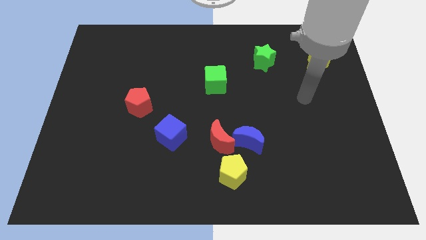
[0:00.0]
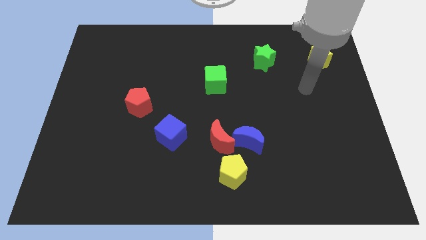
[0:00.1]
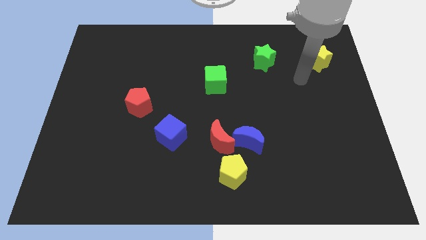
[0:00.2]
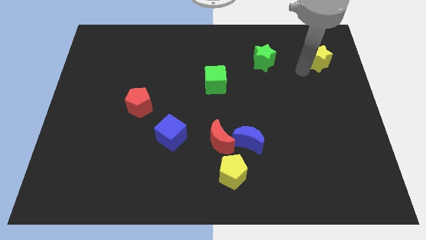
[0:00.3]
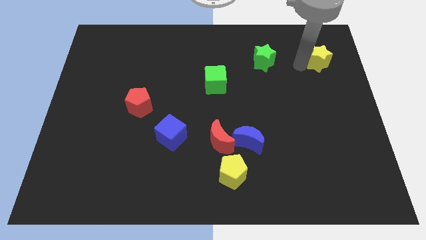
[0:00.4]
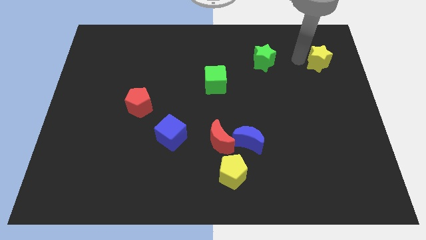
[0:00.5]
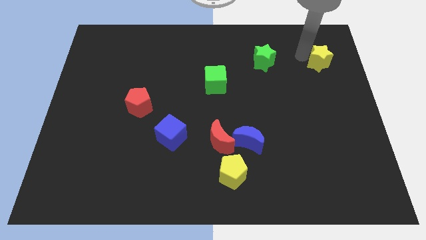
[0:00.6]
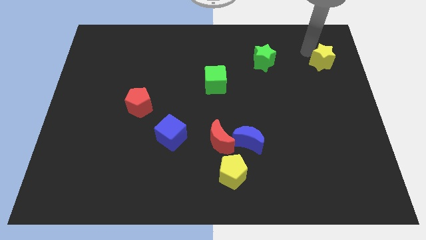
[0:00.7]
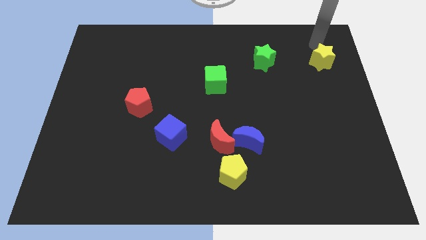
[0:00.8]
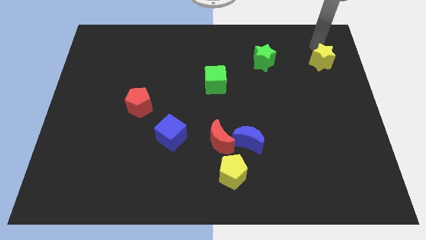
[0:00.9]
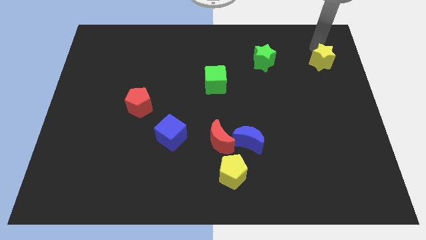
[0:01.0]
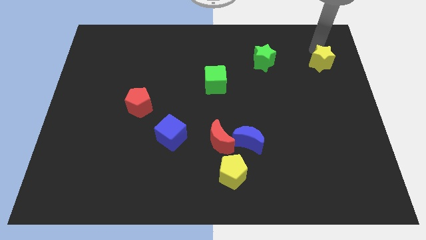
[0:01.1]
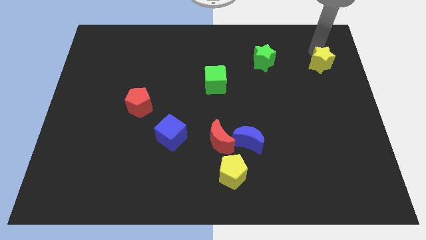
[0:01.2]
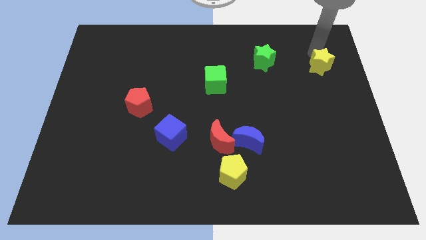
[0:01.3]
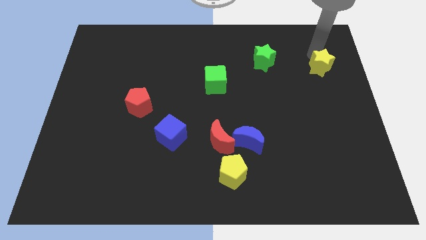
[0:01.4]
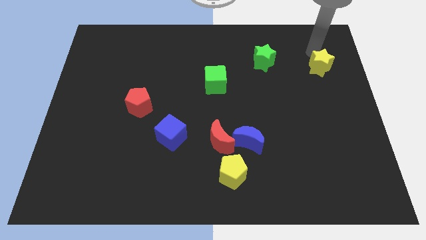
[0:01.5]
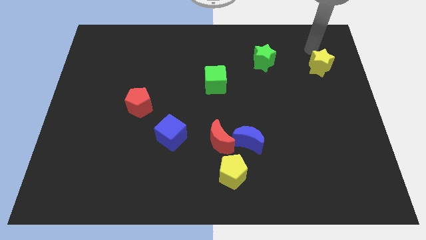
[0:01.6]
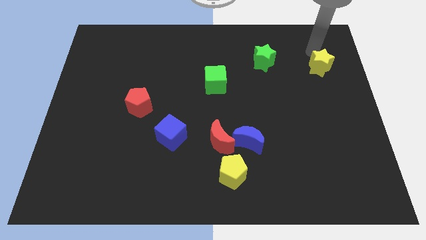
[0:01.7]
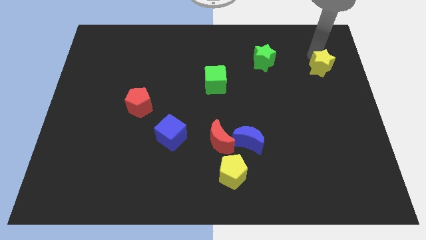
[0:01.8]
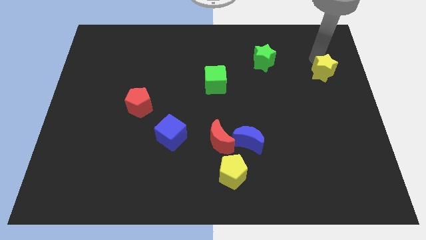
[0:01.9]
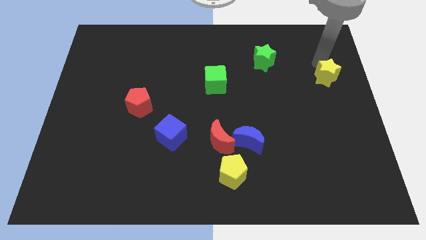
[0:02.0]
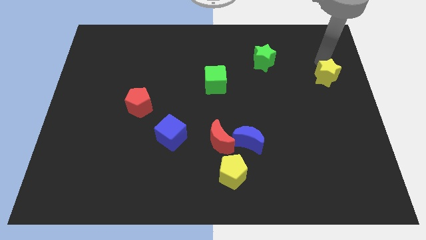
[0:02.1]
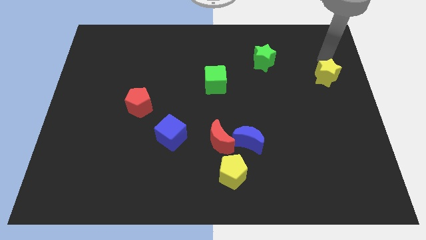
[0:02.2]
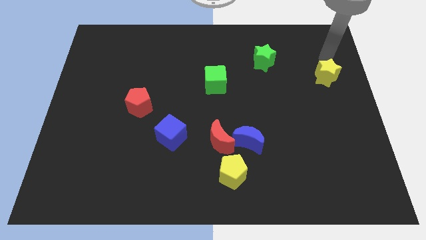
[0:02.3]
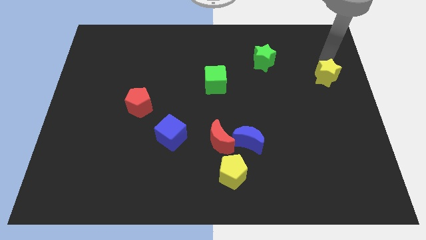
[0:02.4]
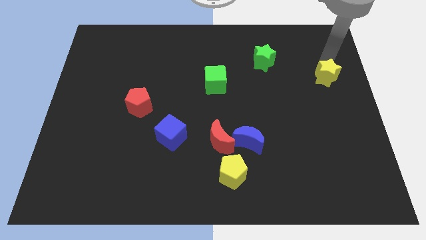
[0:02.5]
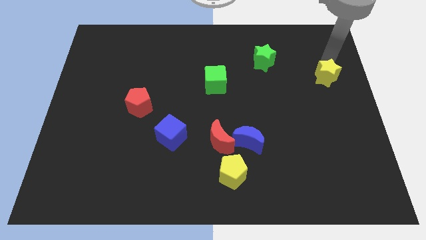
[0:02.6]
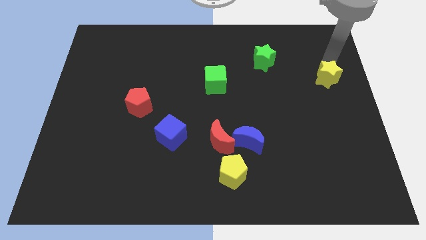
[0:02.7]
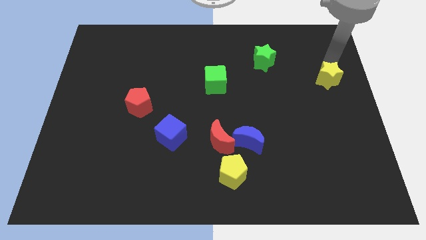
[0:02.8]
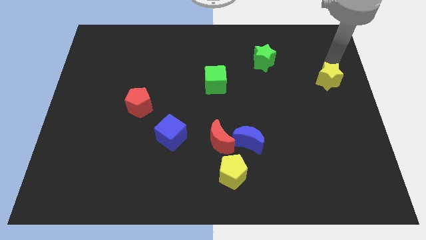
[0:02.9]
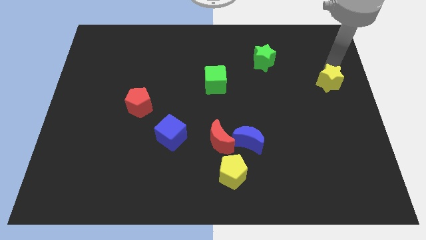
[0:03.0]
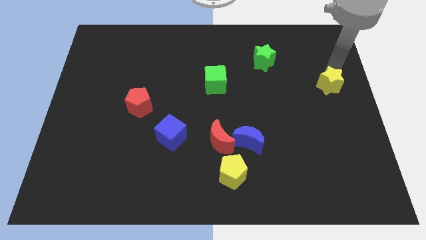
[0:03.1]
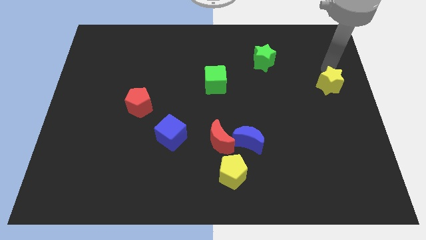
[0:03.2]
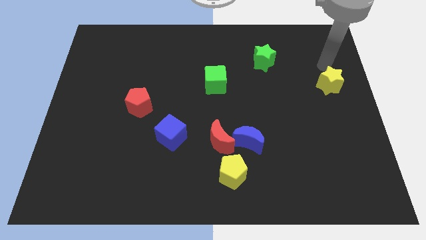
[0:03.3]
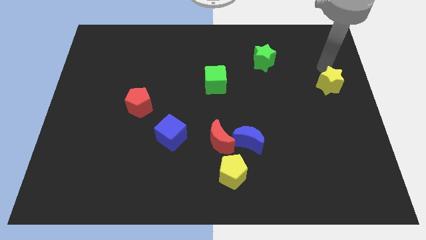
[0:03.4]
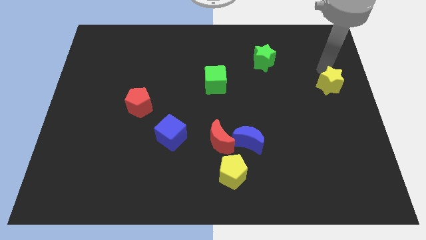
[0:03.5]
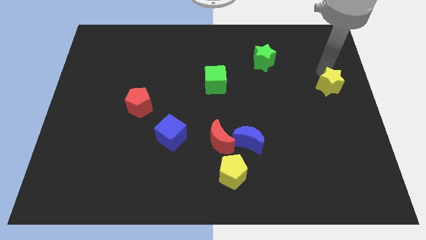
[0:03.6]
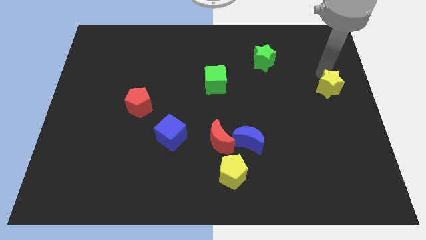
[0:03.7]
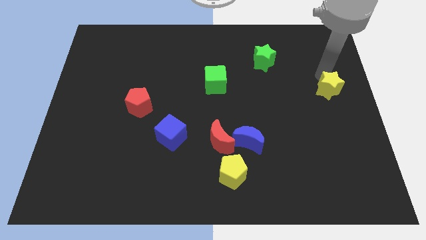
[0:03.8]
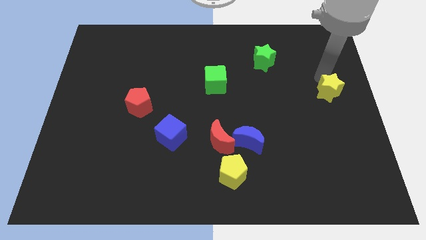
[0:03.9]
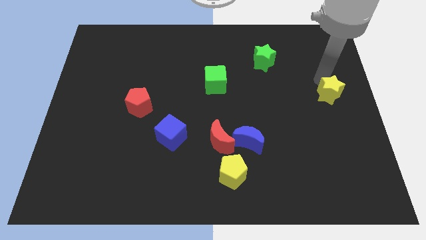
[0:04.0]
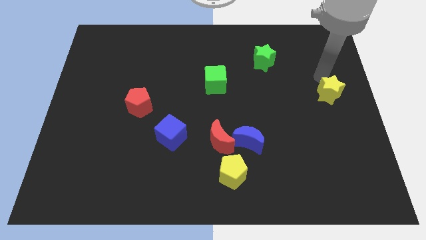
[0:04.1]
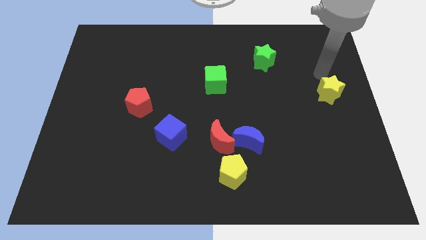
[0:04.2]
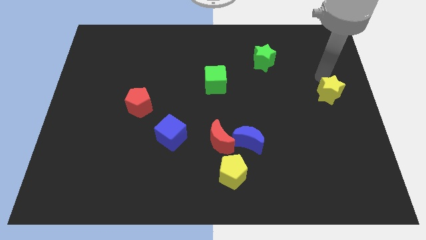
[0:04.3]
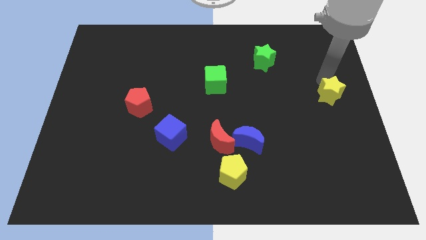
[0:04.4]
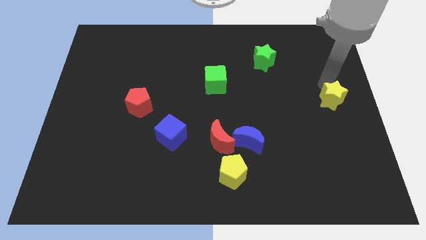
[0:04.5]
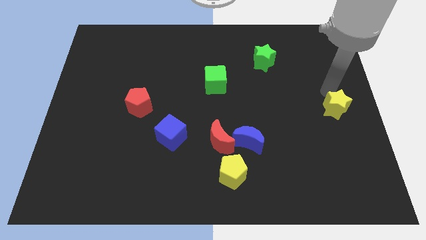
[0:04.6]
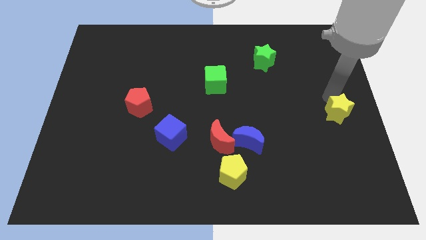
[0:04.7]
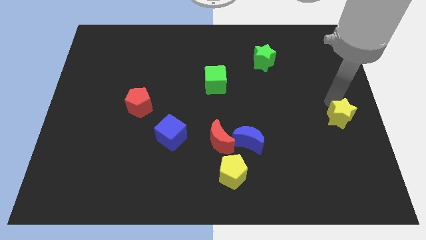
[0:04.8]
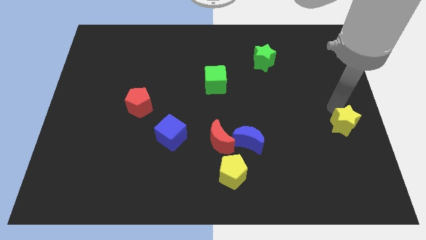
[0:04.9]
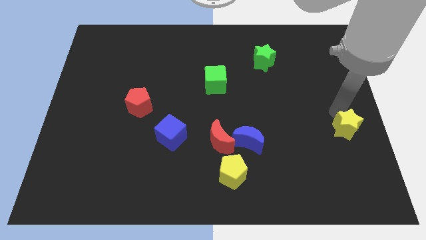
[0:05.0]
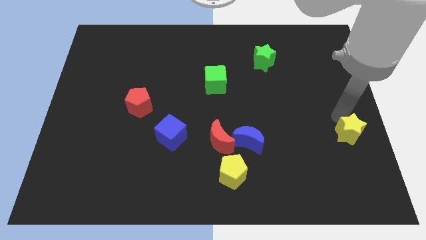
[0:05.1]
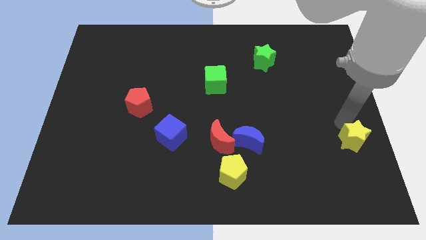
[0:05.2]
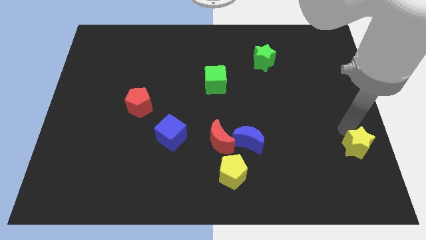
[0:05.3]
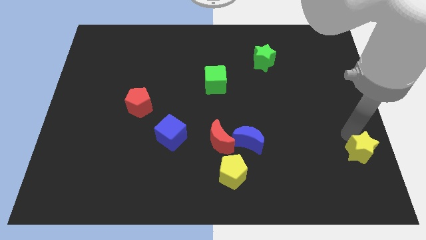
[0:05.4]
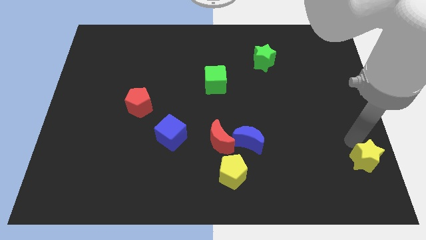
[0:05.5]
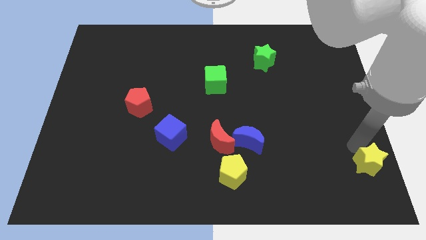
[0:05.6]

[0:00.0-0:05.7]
push the yellow star to the bottom right

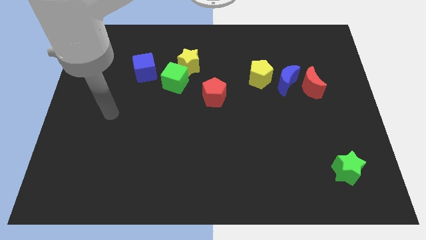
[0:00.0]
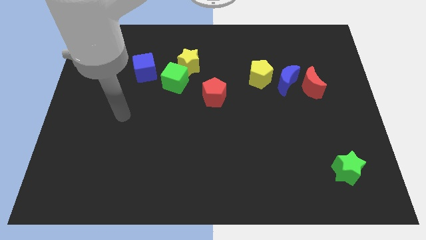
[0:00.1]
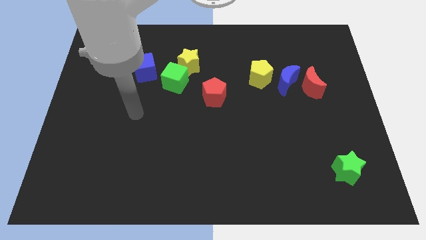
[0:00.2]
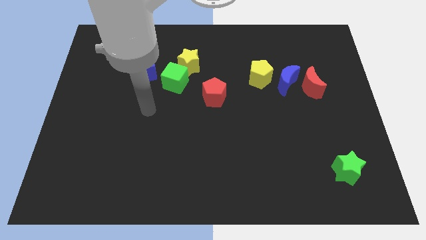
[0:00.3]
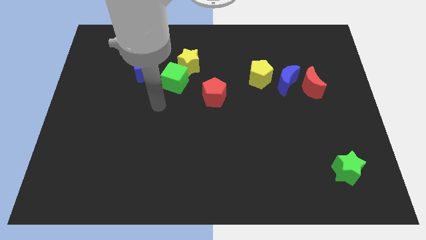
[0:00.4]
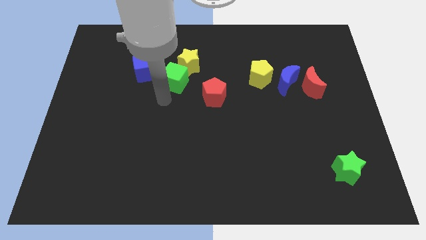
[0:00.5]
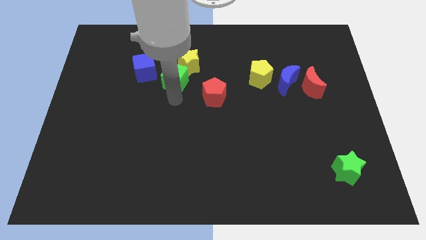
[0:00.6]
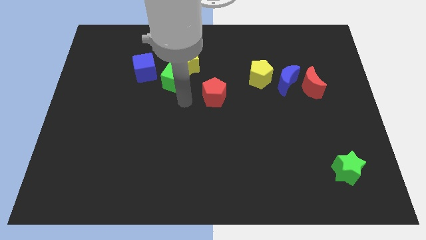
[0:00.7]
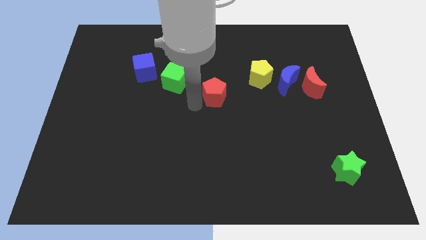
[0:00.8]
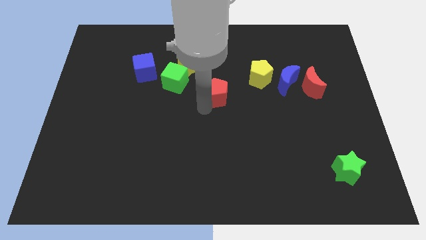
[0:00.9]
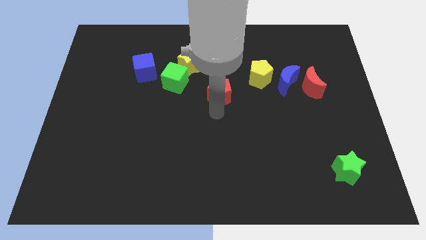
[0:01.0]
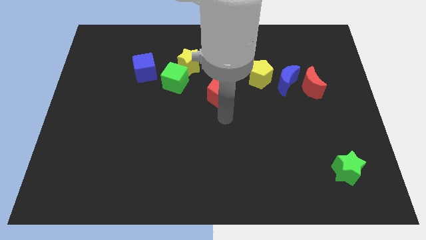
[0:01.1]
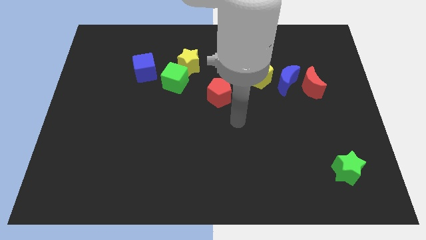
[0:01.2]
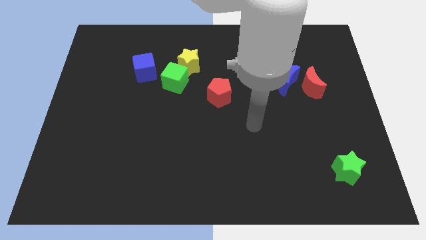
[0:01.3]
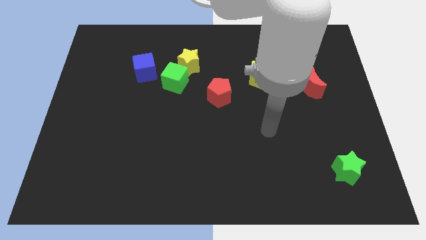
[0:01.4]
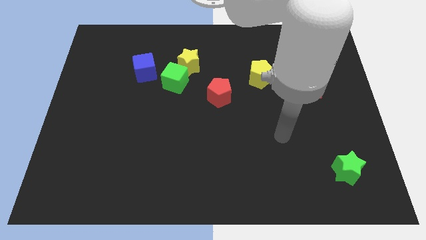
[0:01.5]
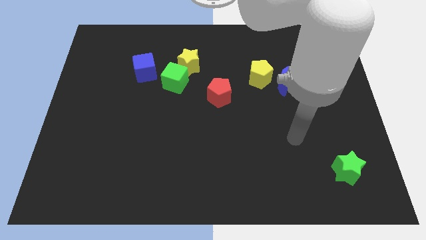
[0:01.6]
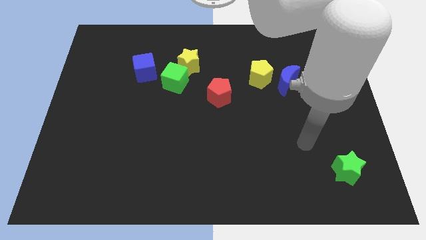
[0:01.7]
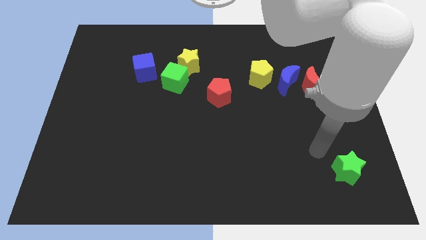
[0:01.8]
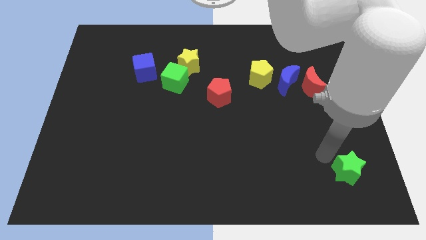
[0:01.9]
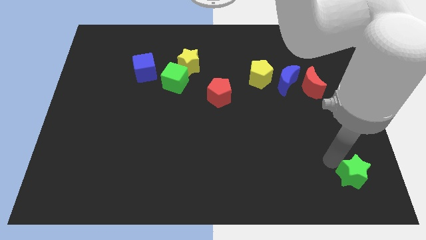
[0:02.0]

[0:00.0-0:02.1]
slide the green star to the bottom right corner
